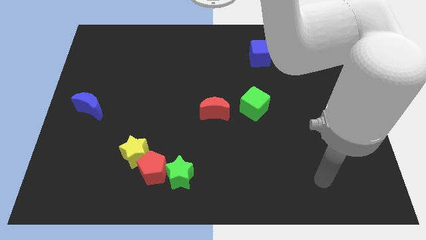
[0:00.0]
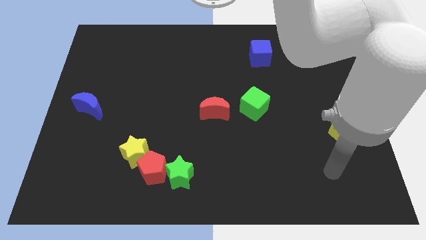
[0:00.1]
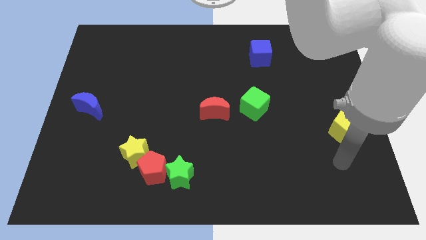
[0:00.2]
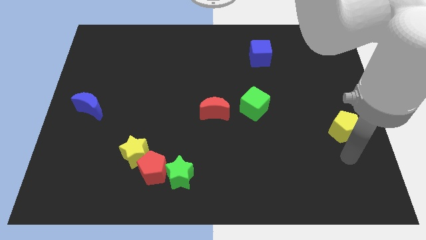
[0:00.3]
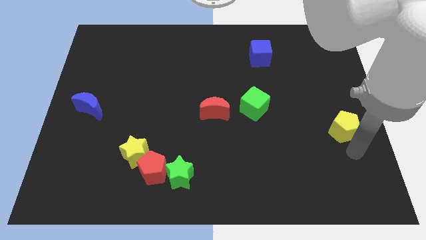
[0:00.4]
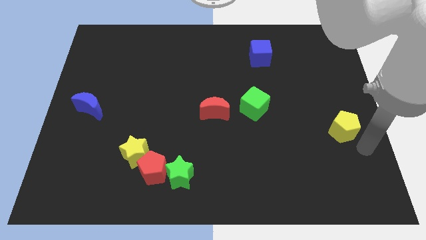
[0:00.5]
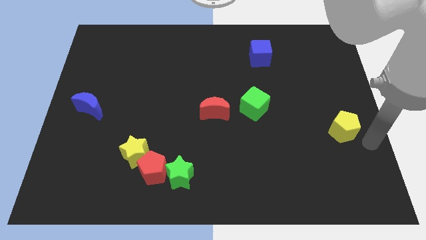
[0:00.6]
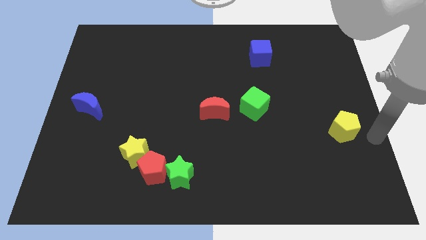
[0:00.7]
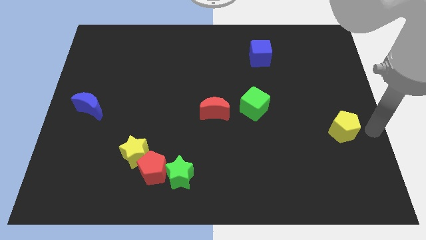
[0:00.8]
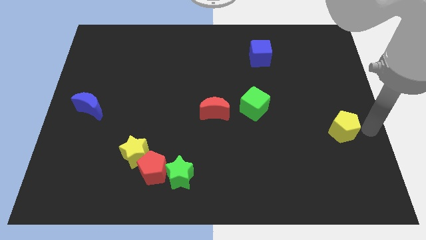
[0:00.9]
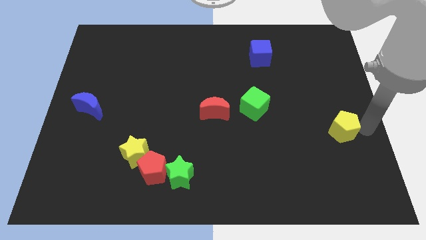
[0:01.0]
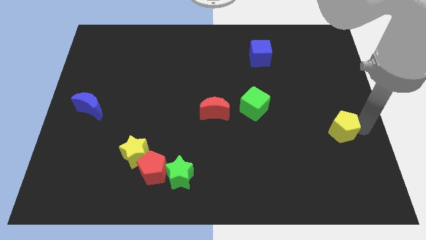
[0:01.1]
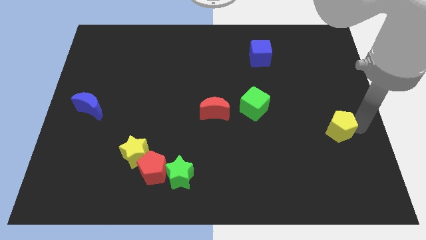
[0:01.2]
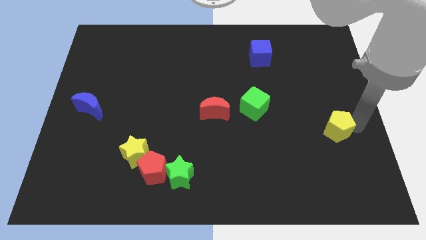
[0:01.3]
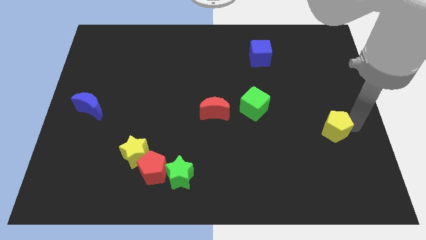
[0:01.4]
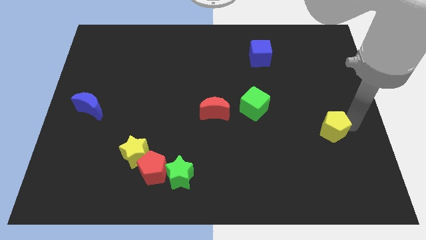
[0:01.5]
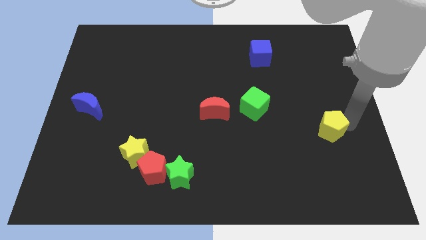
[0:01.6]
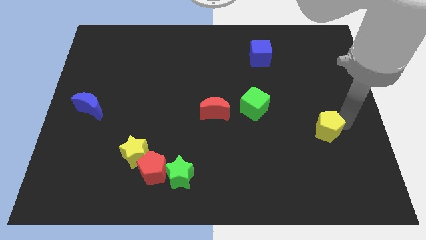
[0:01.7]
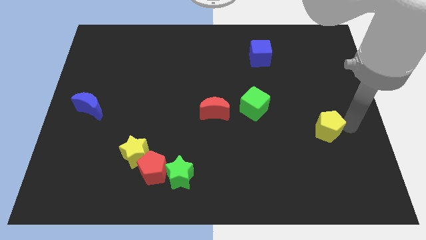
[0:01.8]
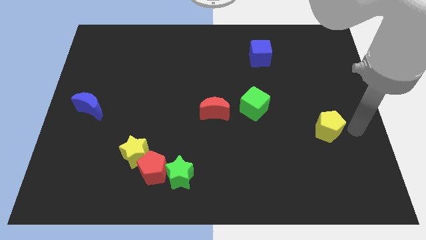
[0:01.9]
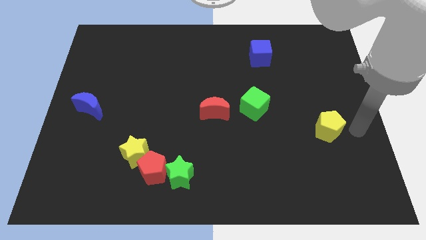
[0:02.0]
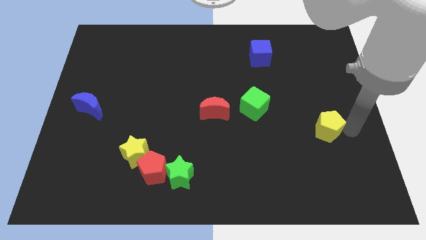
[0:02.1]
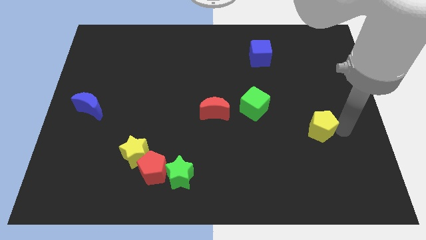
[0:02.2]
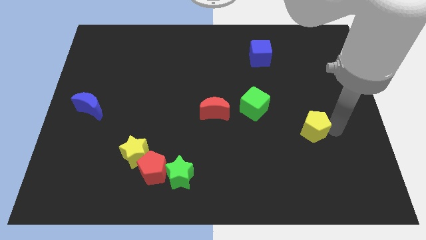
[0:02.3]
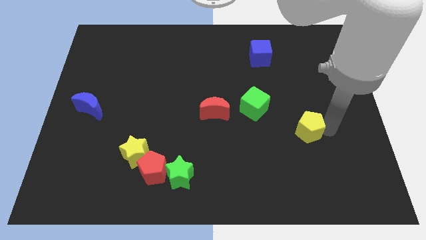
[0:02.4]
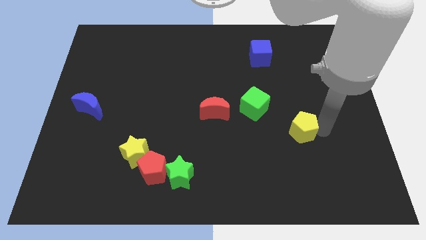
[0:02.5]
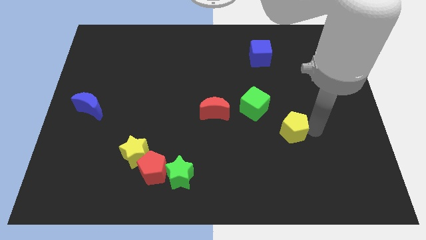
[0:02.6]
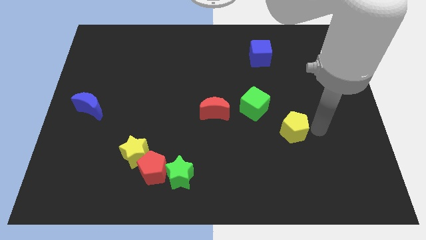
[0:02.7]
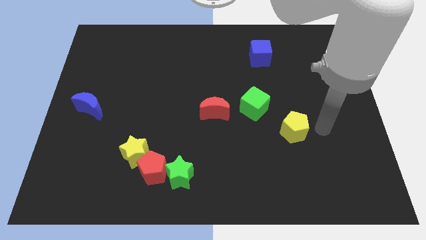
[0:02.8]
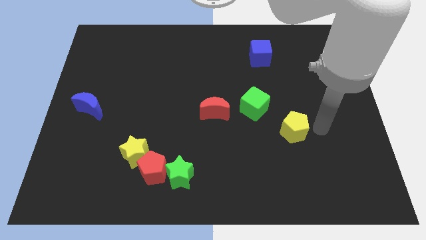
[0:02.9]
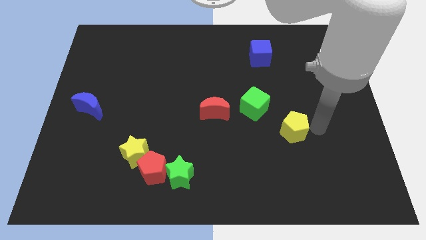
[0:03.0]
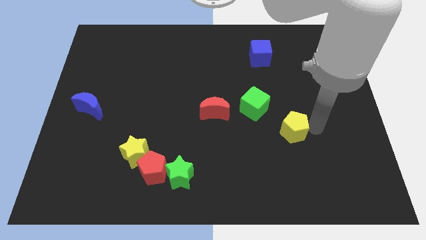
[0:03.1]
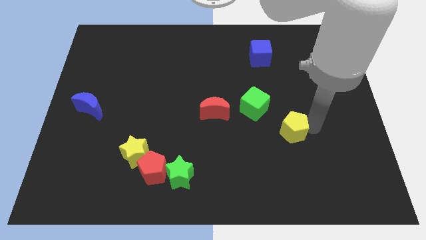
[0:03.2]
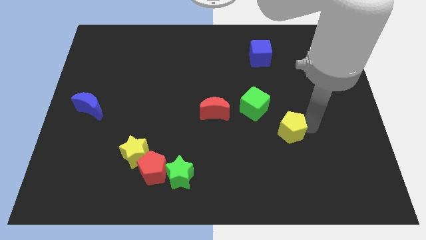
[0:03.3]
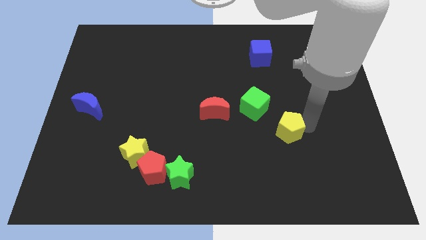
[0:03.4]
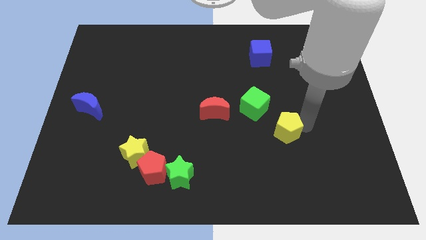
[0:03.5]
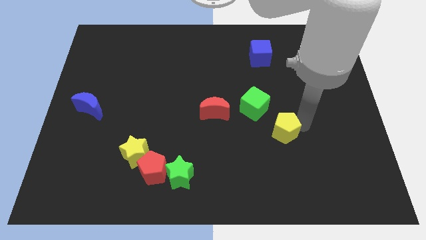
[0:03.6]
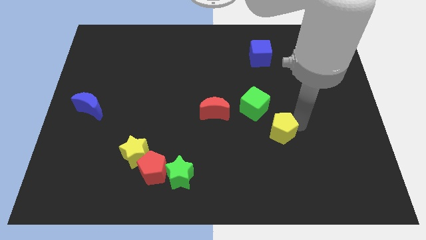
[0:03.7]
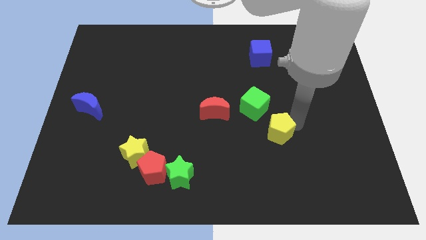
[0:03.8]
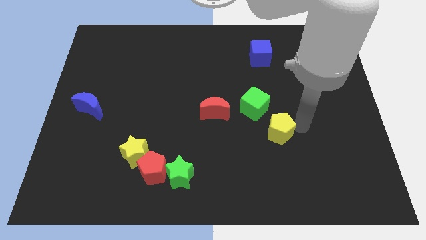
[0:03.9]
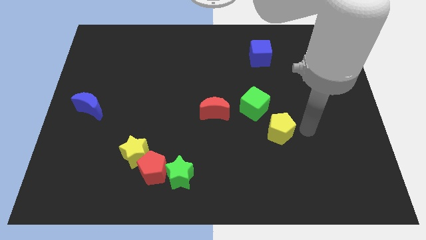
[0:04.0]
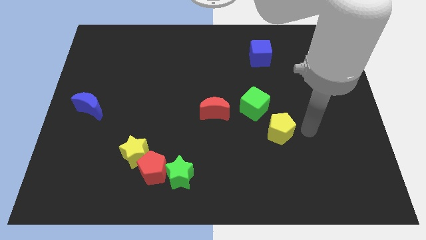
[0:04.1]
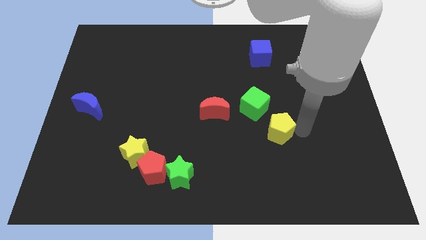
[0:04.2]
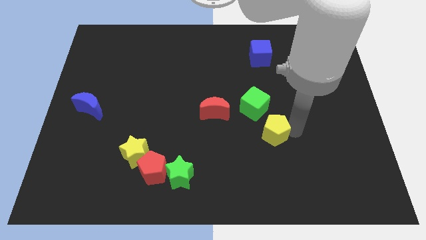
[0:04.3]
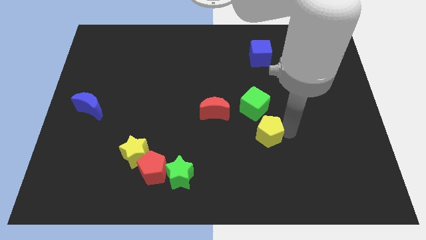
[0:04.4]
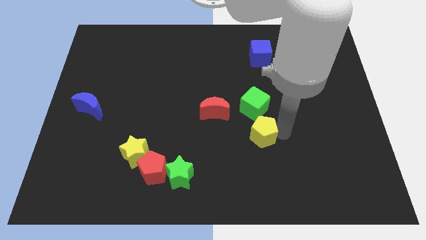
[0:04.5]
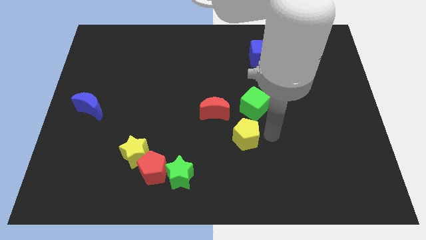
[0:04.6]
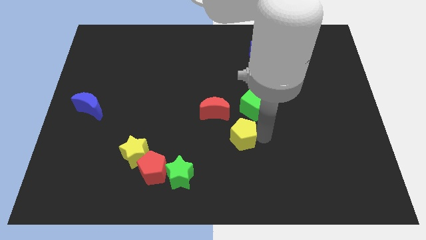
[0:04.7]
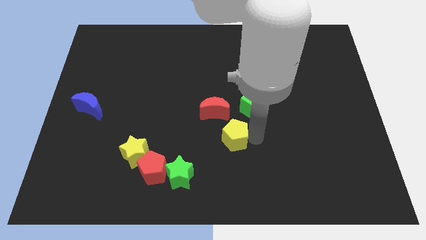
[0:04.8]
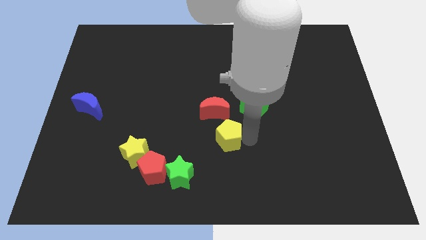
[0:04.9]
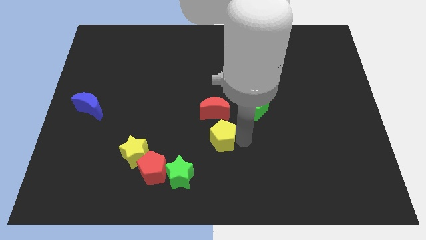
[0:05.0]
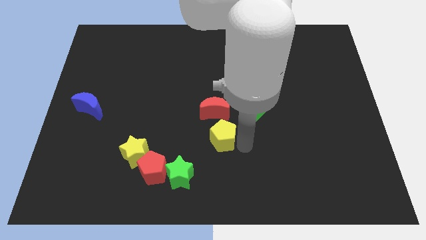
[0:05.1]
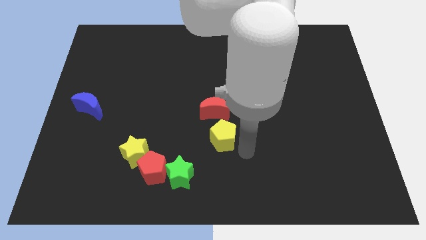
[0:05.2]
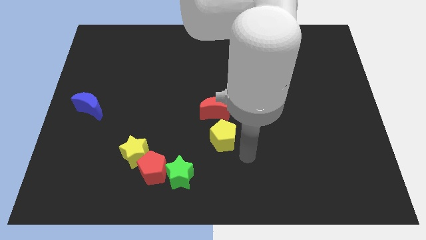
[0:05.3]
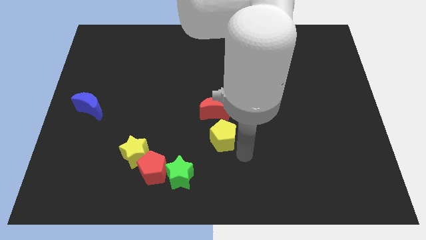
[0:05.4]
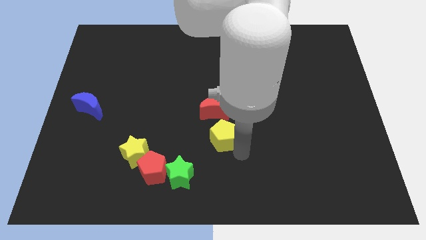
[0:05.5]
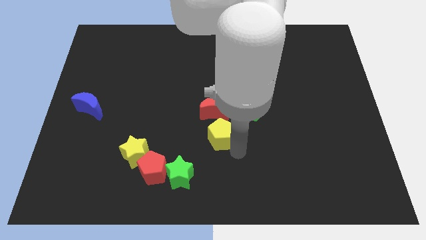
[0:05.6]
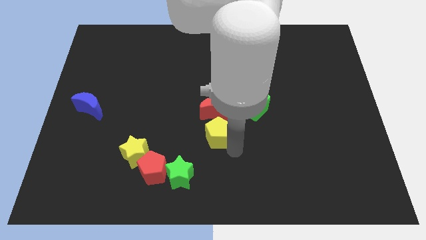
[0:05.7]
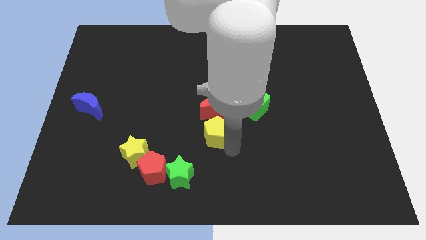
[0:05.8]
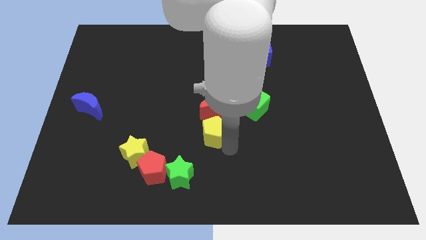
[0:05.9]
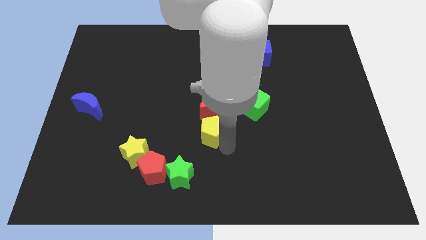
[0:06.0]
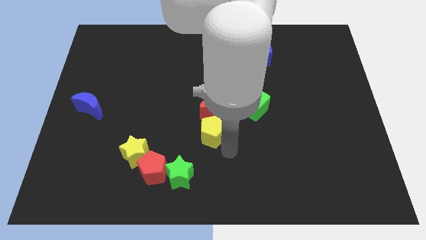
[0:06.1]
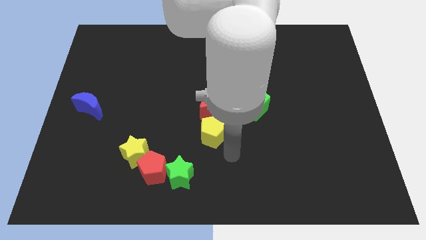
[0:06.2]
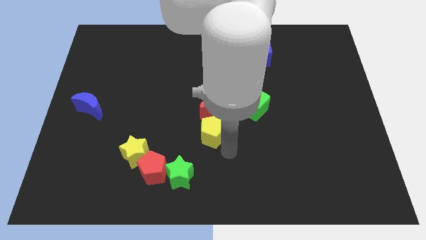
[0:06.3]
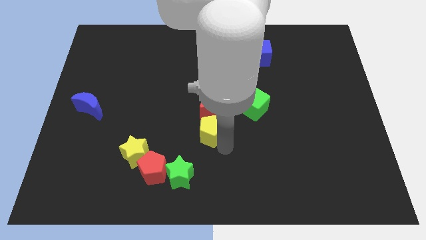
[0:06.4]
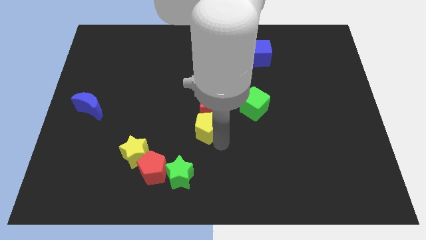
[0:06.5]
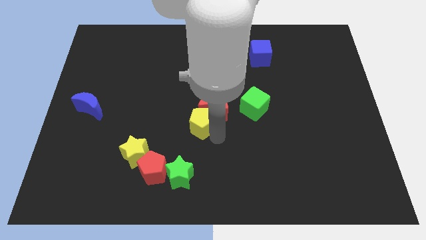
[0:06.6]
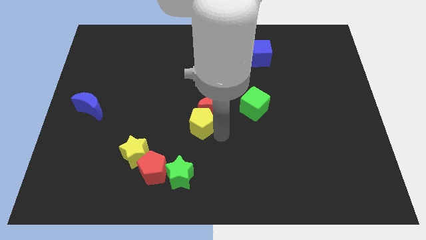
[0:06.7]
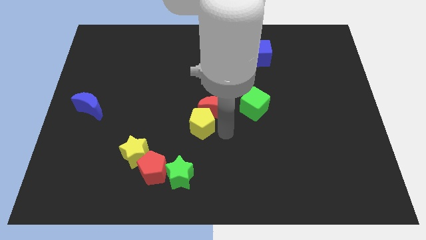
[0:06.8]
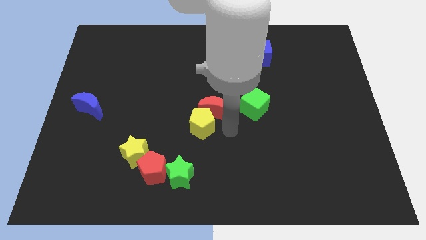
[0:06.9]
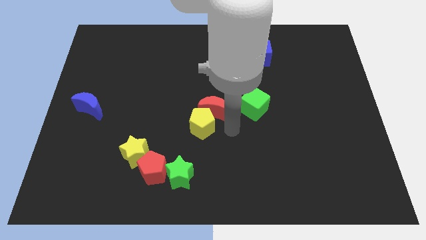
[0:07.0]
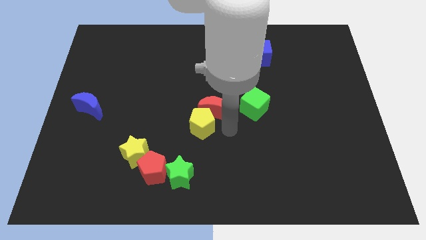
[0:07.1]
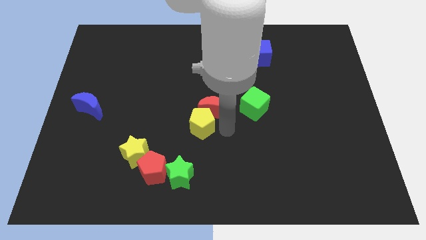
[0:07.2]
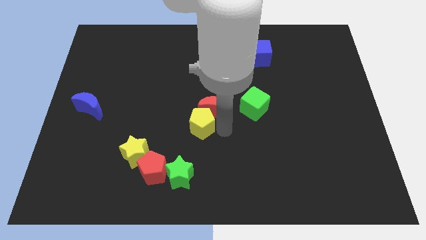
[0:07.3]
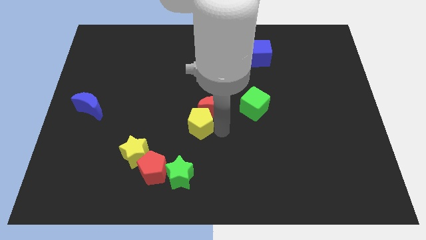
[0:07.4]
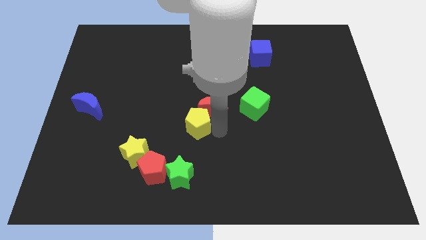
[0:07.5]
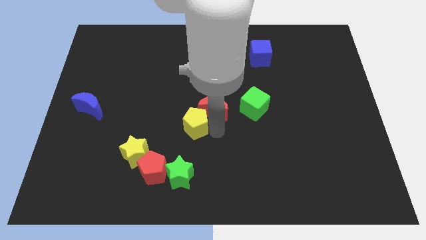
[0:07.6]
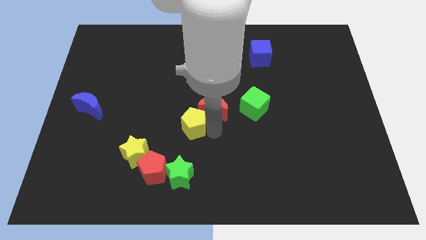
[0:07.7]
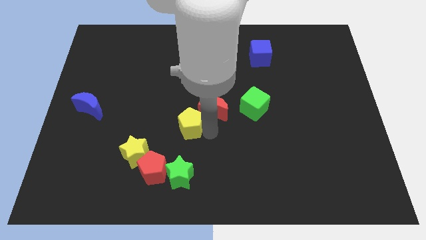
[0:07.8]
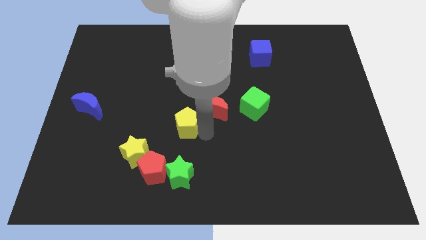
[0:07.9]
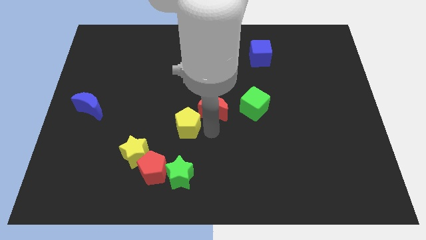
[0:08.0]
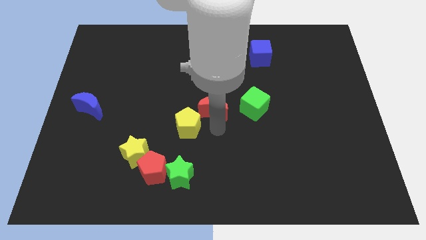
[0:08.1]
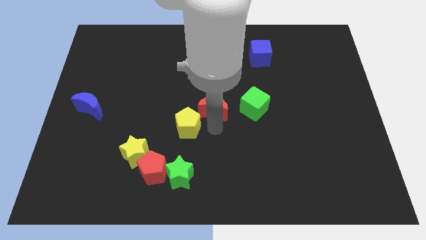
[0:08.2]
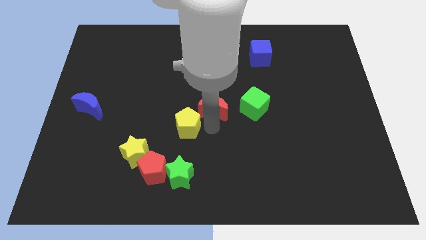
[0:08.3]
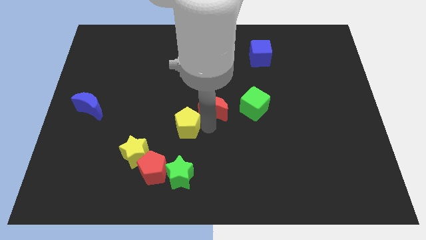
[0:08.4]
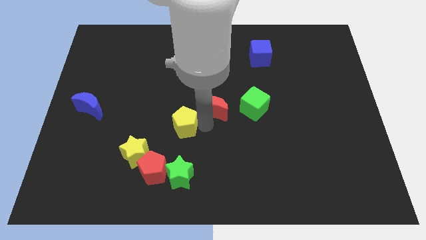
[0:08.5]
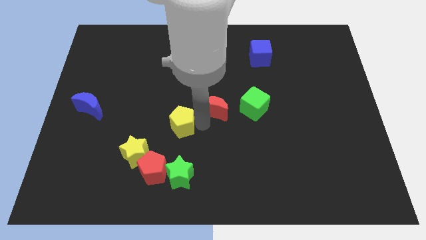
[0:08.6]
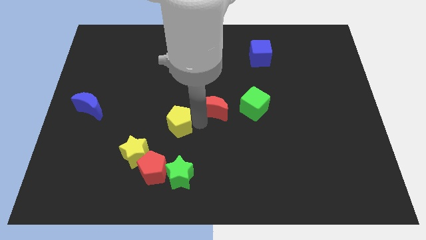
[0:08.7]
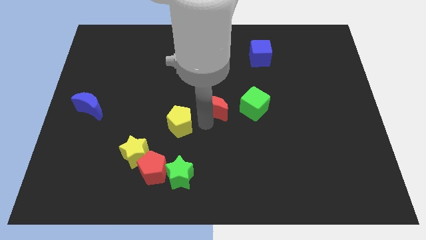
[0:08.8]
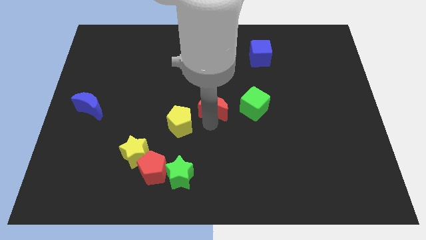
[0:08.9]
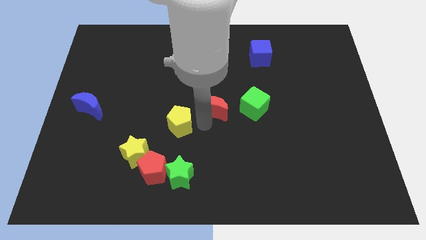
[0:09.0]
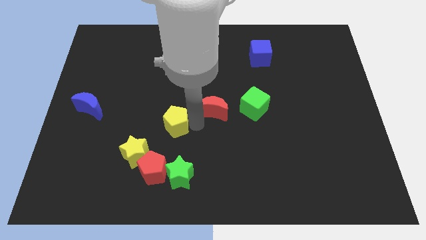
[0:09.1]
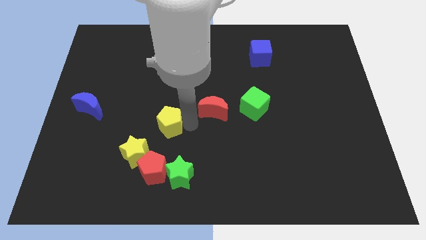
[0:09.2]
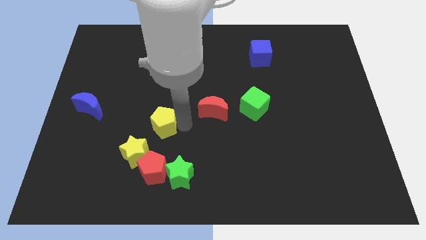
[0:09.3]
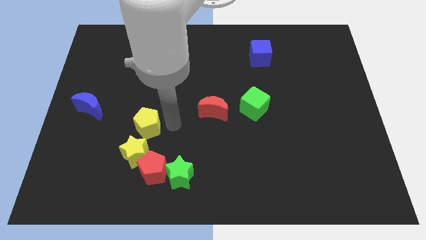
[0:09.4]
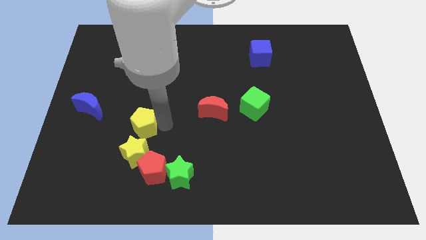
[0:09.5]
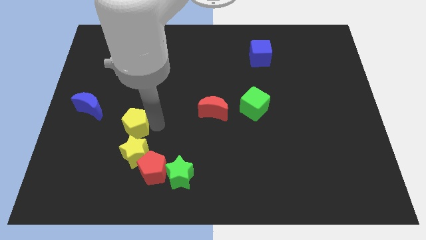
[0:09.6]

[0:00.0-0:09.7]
put the yellow pentagon to the top left side of the yellow star
